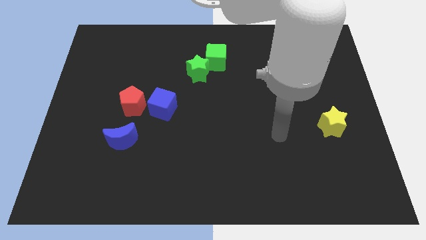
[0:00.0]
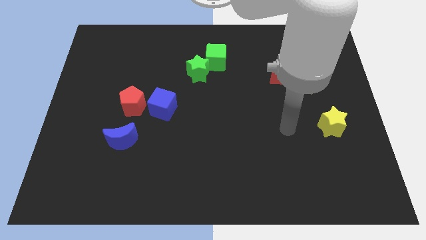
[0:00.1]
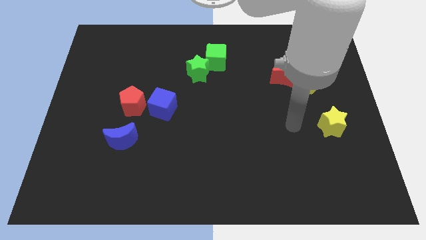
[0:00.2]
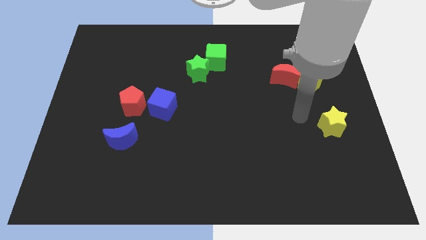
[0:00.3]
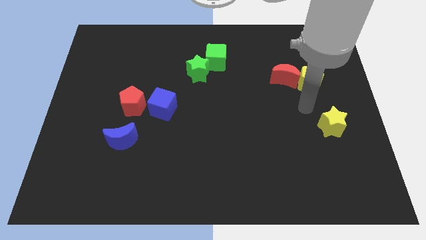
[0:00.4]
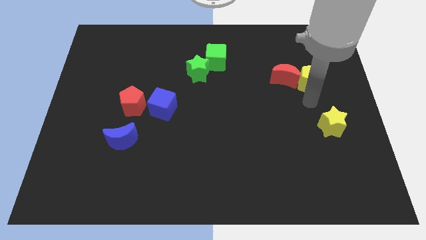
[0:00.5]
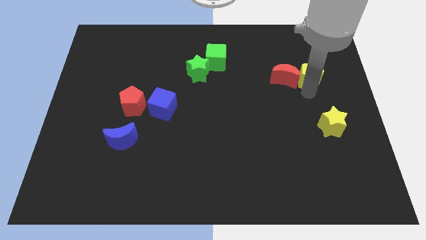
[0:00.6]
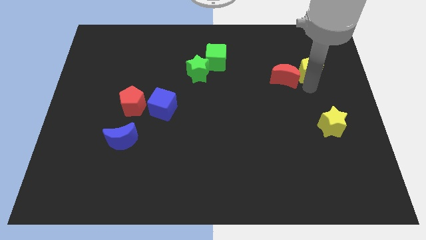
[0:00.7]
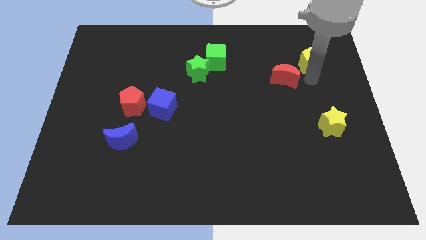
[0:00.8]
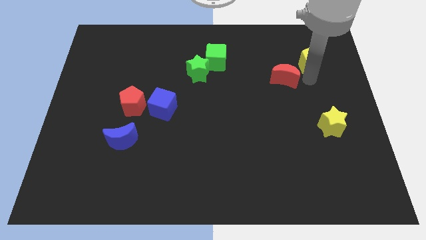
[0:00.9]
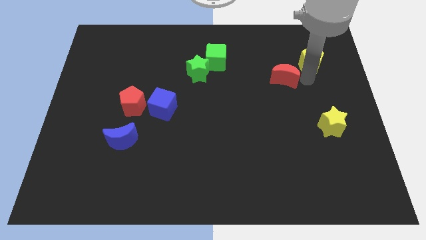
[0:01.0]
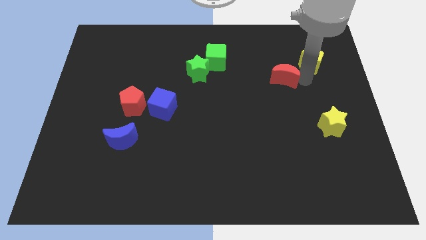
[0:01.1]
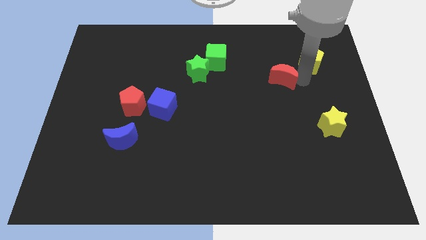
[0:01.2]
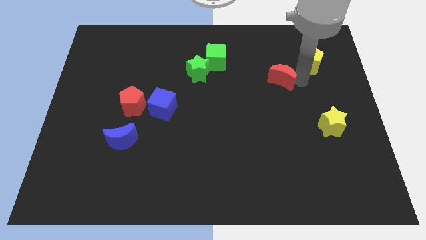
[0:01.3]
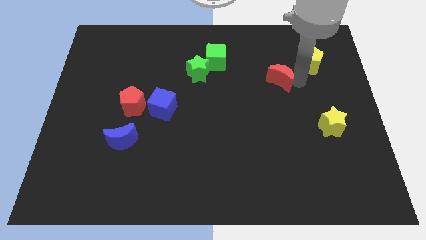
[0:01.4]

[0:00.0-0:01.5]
move the red moon away from the yellow pentagon

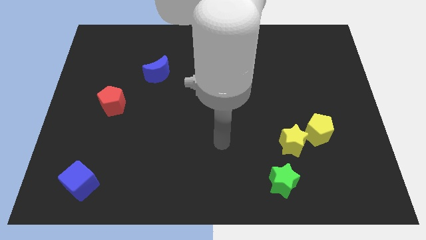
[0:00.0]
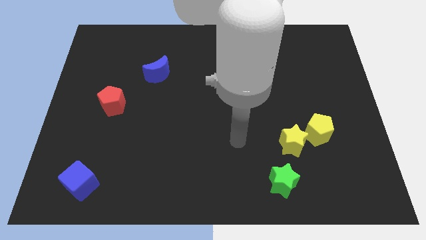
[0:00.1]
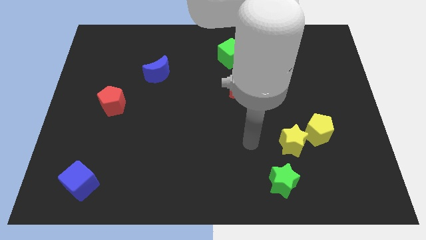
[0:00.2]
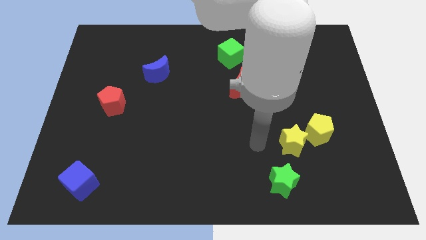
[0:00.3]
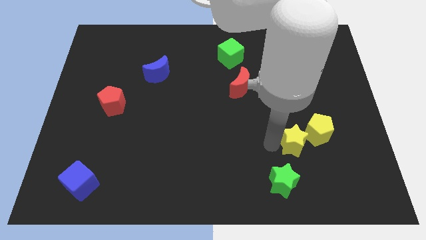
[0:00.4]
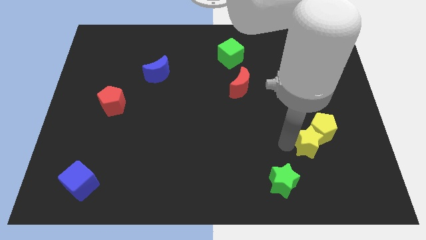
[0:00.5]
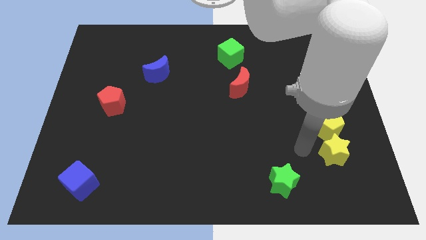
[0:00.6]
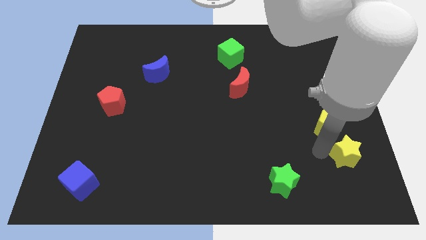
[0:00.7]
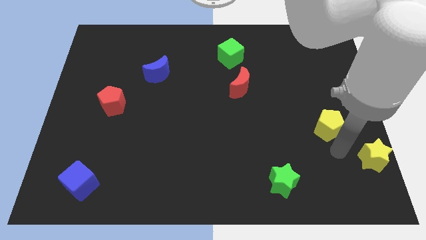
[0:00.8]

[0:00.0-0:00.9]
pull the yellow pentagon apart from the yellow star

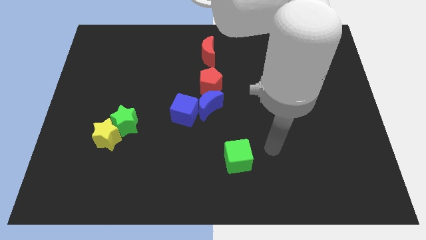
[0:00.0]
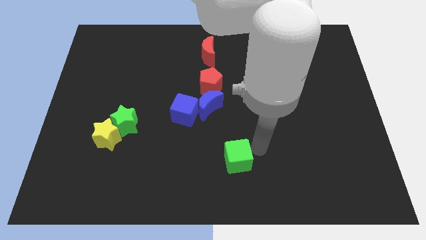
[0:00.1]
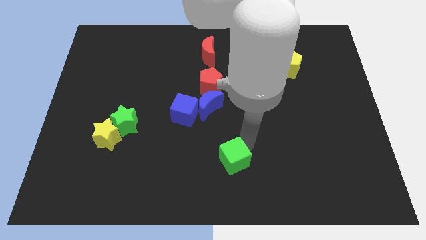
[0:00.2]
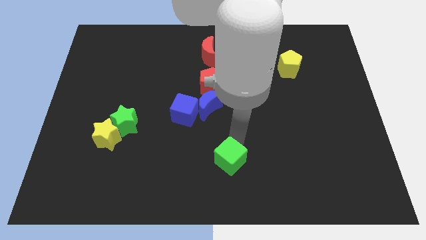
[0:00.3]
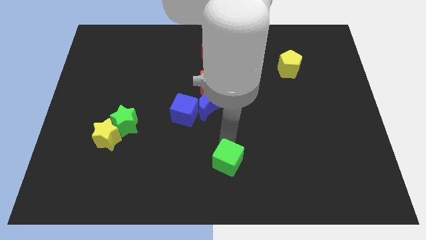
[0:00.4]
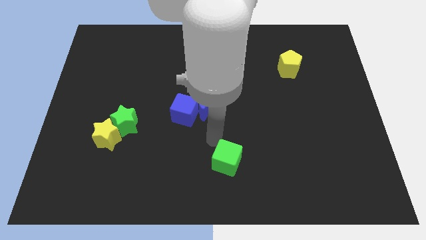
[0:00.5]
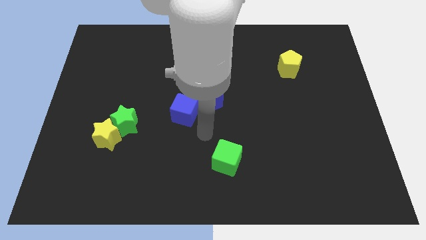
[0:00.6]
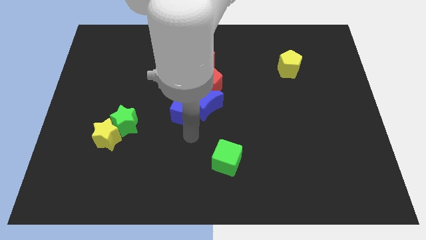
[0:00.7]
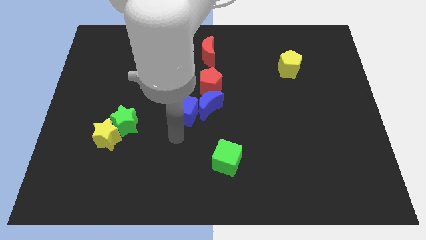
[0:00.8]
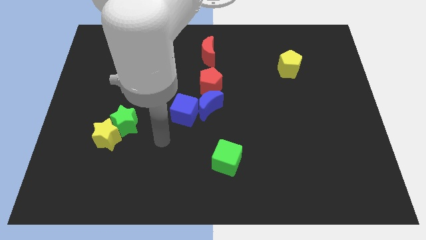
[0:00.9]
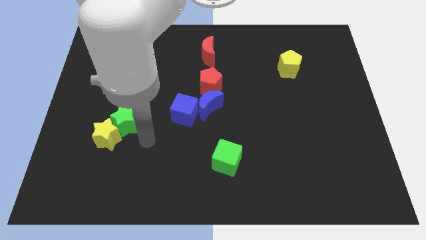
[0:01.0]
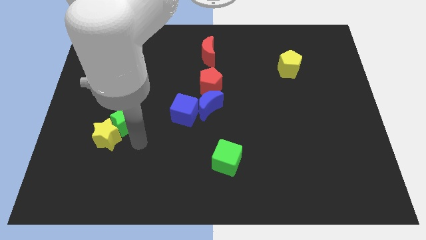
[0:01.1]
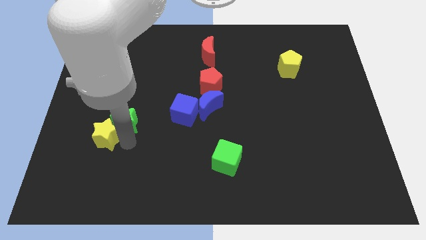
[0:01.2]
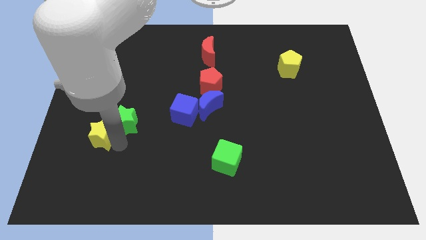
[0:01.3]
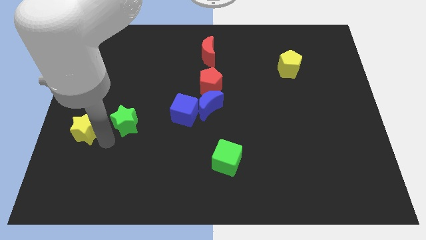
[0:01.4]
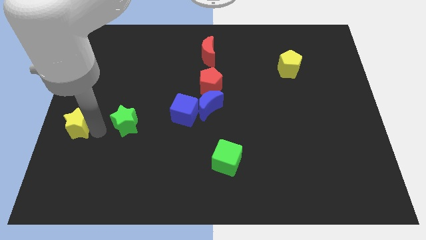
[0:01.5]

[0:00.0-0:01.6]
separate the green star from the yellow star

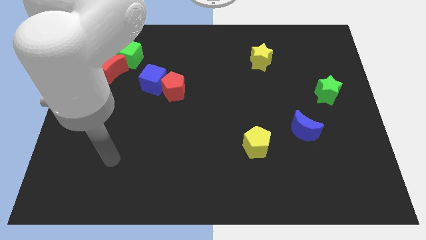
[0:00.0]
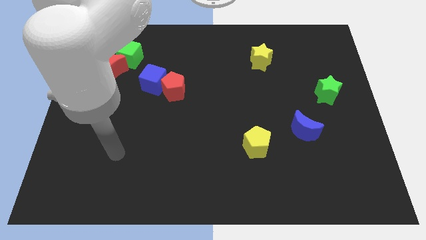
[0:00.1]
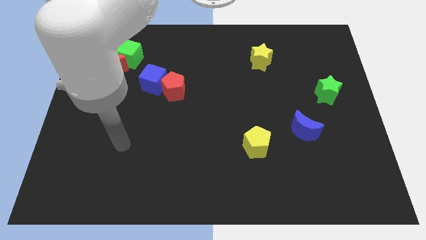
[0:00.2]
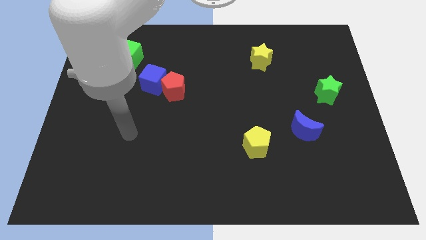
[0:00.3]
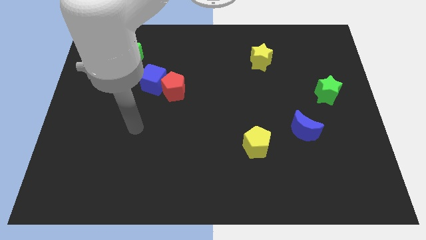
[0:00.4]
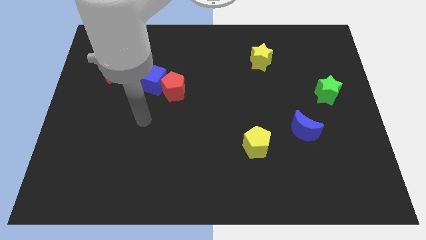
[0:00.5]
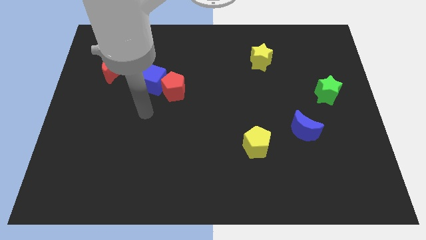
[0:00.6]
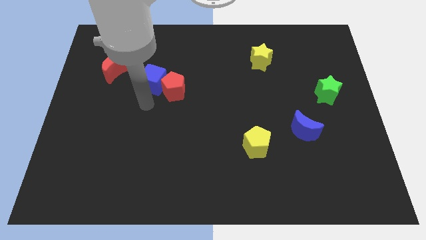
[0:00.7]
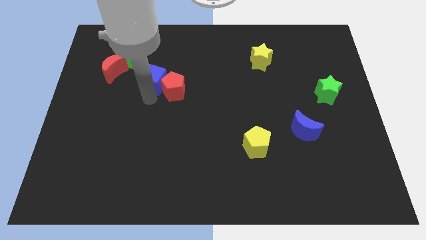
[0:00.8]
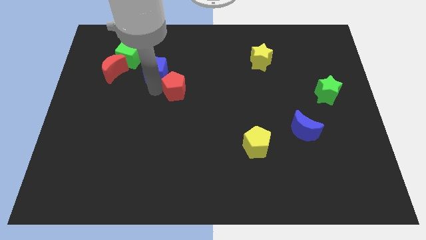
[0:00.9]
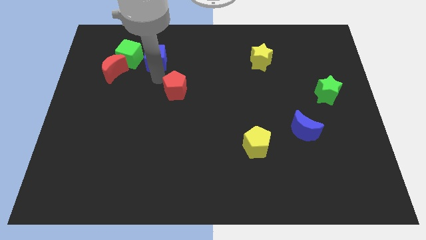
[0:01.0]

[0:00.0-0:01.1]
move the red pentagon away from the blue cube

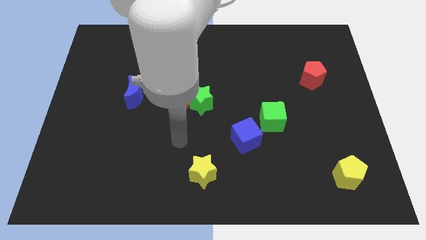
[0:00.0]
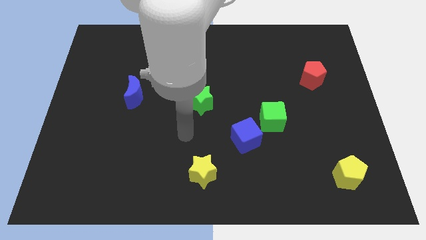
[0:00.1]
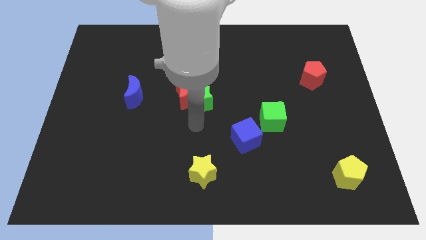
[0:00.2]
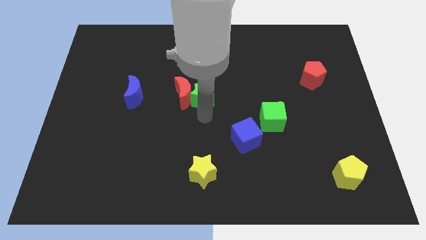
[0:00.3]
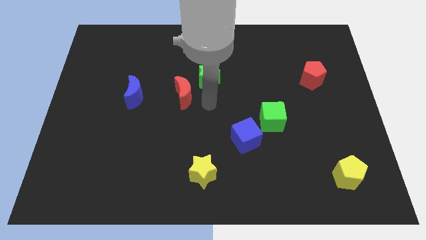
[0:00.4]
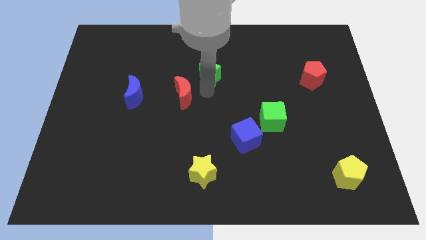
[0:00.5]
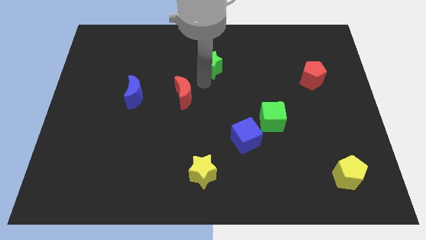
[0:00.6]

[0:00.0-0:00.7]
move the red moon away from the green star

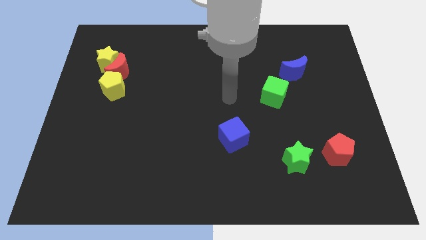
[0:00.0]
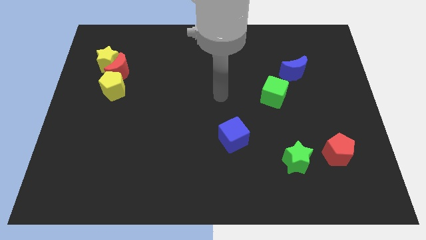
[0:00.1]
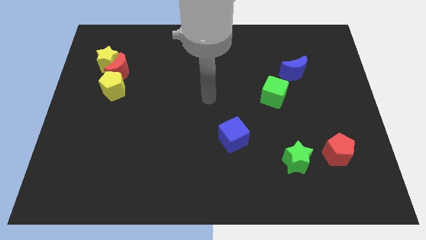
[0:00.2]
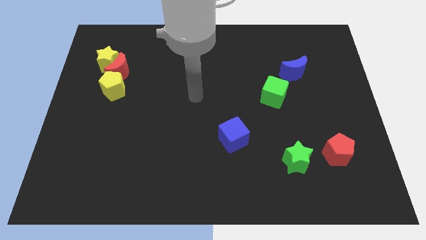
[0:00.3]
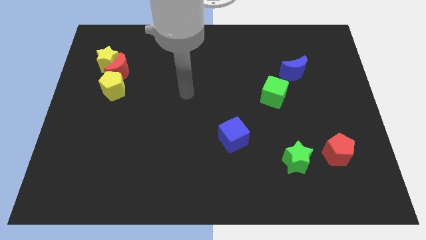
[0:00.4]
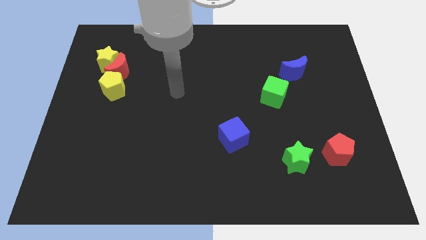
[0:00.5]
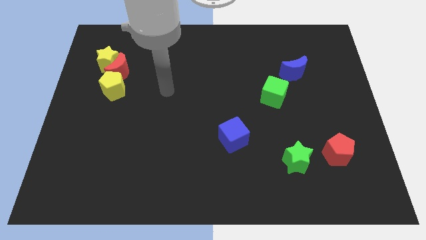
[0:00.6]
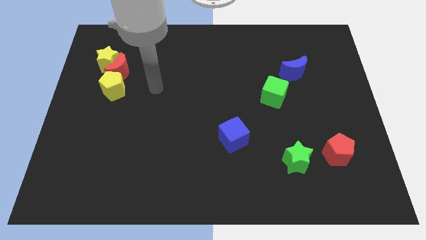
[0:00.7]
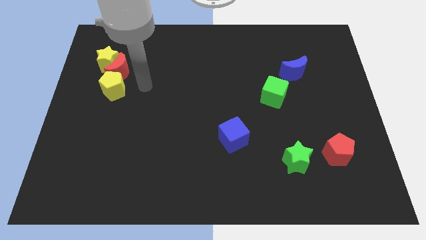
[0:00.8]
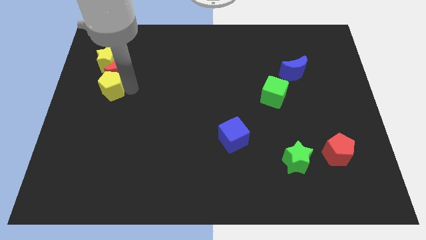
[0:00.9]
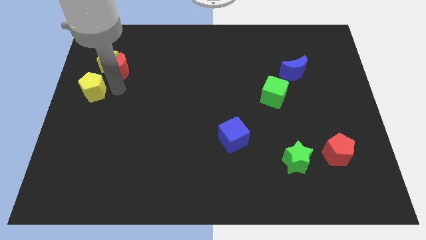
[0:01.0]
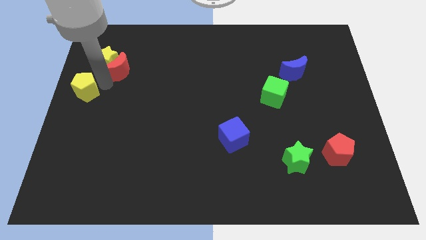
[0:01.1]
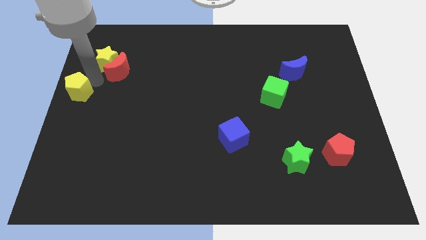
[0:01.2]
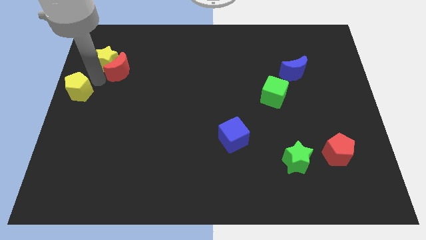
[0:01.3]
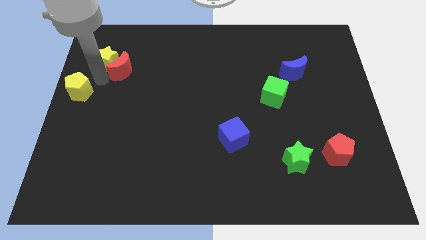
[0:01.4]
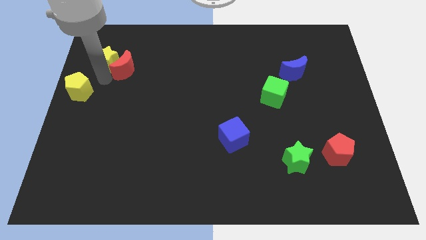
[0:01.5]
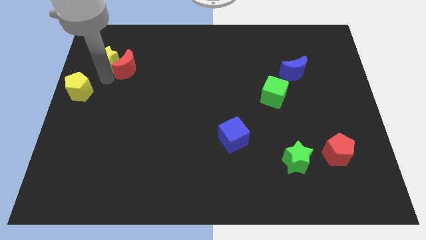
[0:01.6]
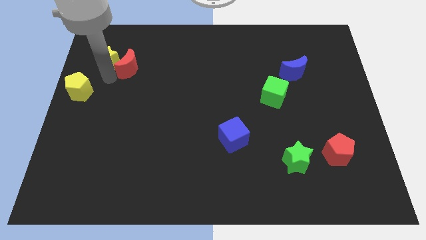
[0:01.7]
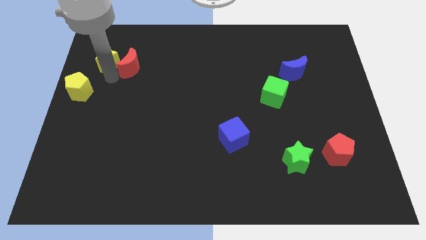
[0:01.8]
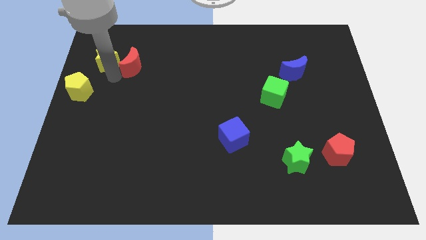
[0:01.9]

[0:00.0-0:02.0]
separate the red moon from the yellow star and yellow pentagon

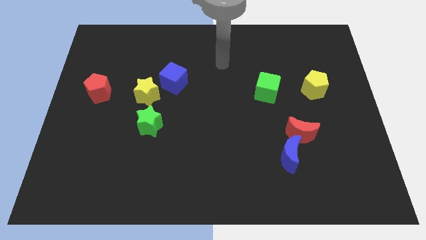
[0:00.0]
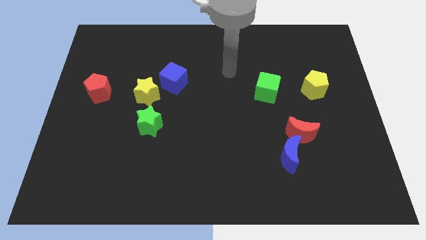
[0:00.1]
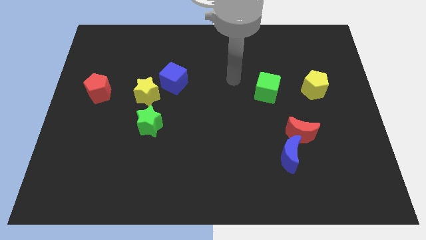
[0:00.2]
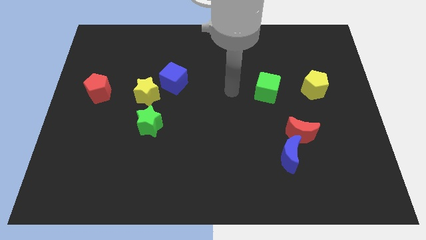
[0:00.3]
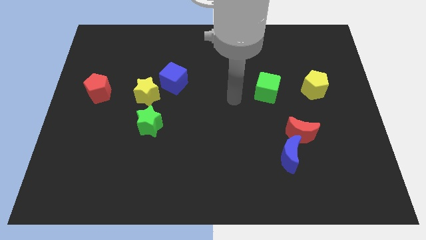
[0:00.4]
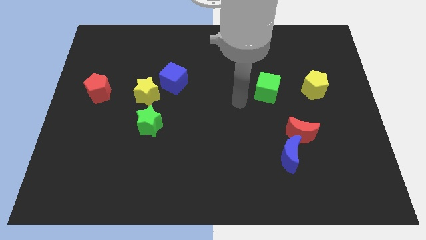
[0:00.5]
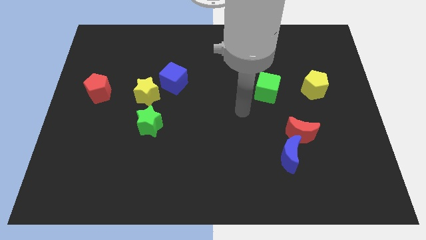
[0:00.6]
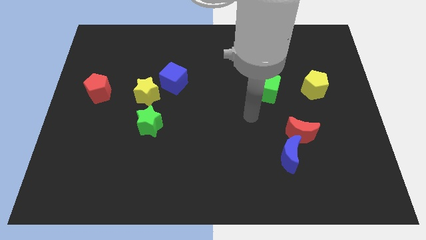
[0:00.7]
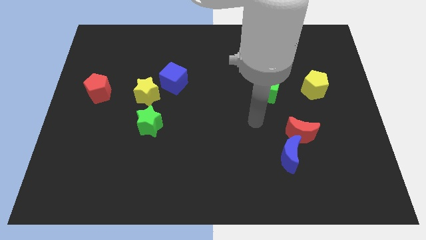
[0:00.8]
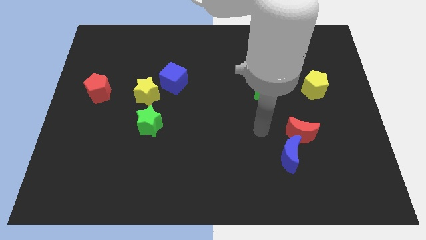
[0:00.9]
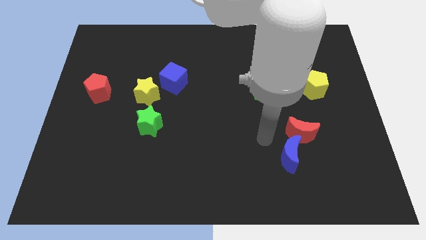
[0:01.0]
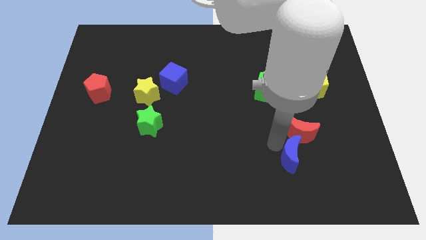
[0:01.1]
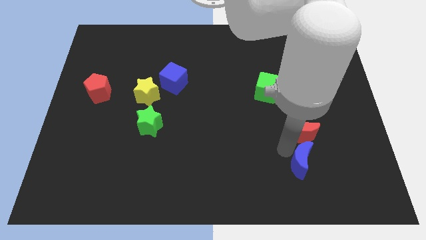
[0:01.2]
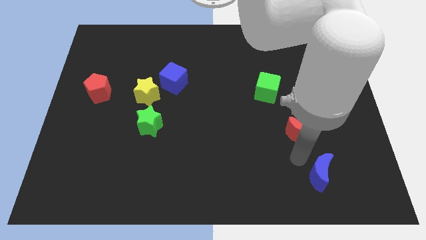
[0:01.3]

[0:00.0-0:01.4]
move the red moon away from the blue moon

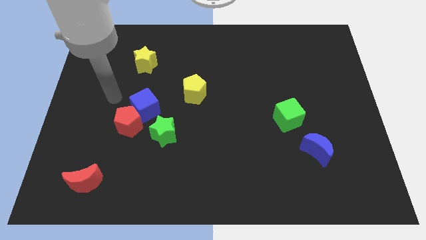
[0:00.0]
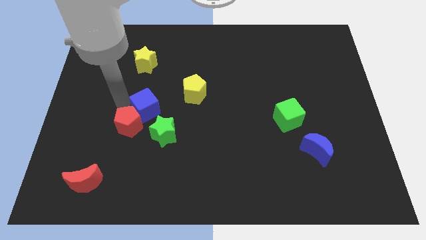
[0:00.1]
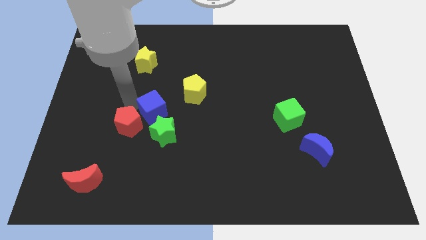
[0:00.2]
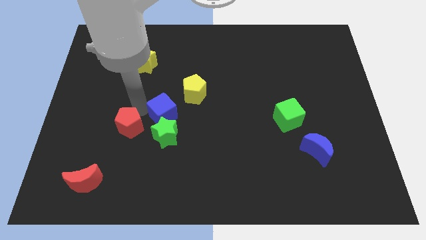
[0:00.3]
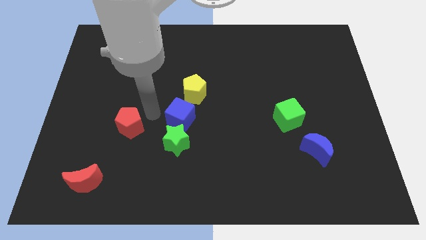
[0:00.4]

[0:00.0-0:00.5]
move the red pentagon away from the blue cube and green star
